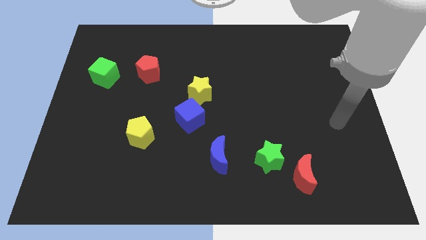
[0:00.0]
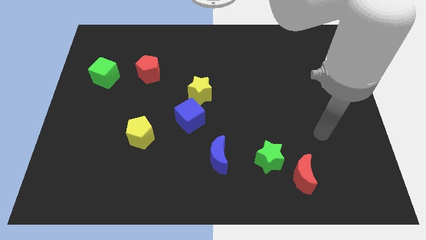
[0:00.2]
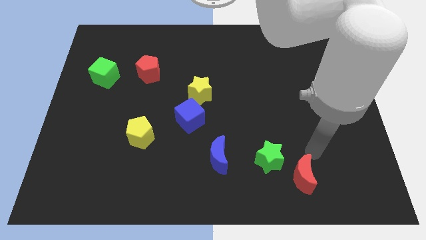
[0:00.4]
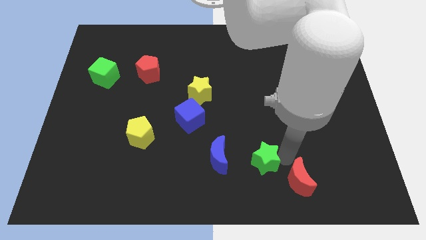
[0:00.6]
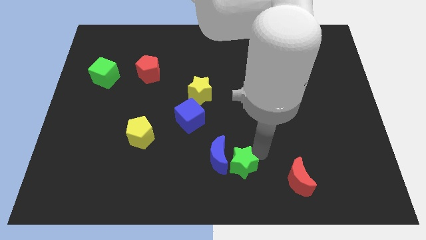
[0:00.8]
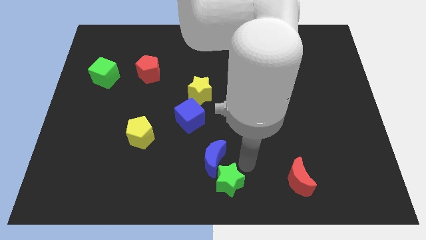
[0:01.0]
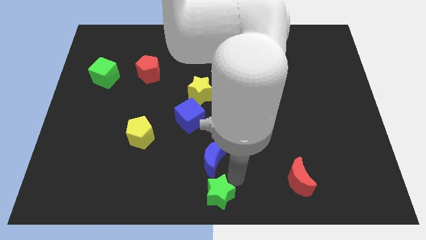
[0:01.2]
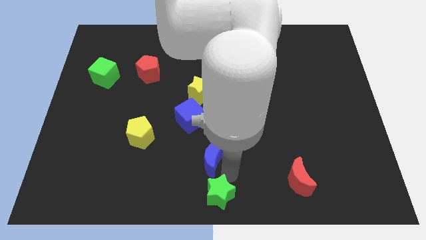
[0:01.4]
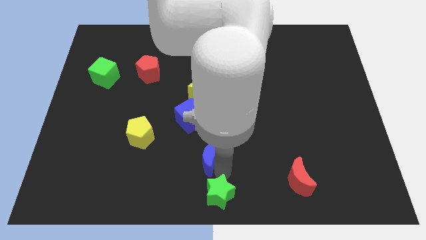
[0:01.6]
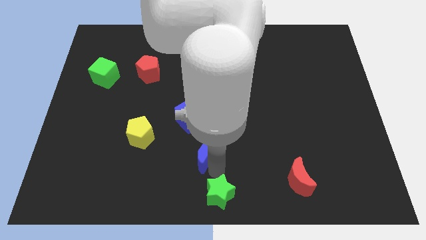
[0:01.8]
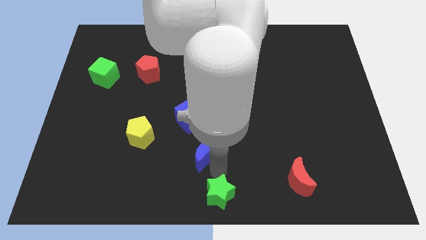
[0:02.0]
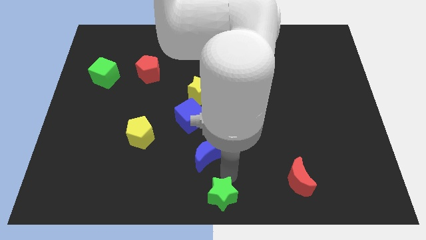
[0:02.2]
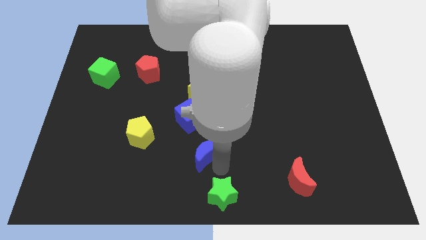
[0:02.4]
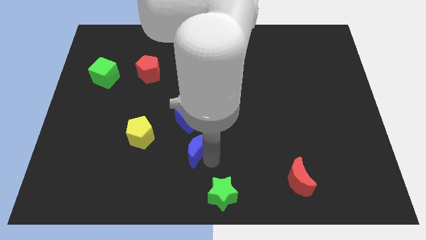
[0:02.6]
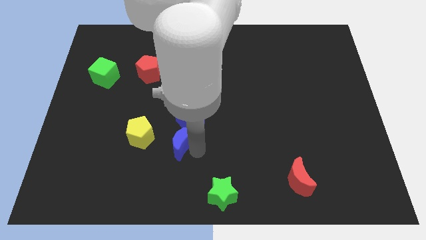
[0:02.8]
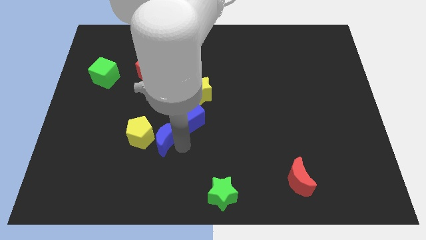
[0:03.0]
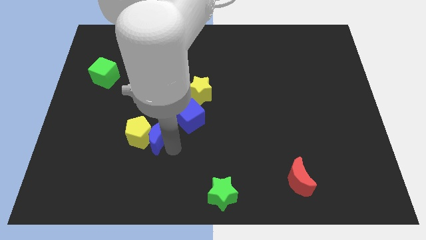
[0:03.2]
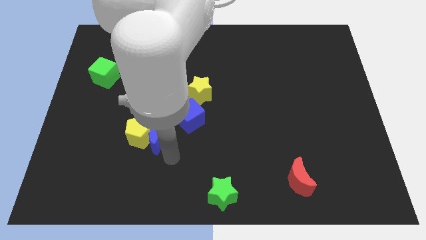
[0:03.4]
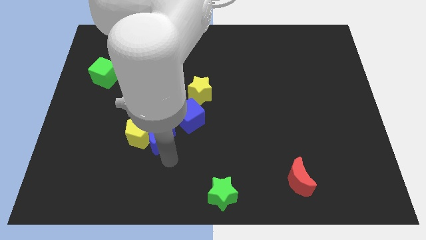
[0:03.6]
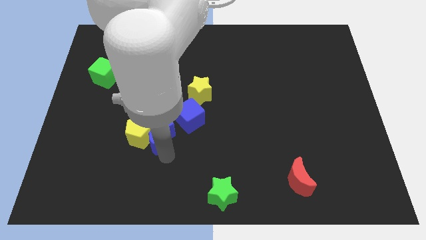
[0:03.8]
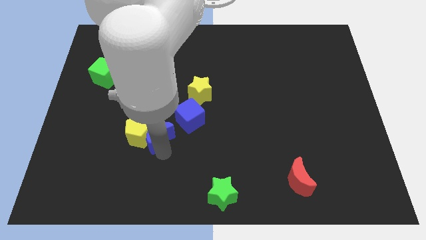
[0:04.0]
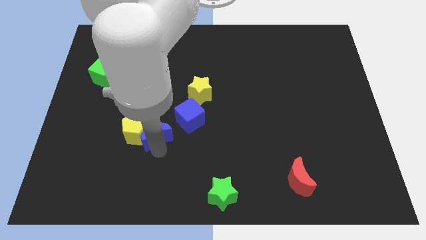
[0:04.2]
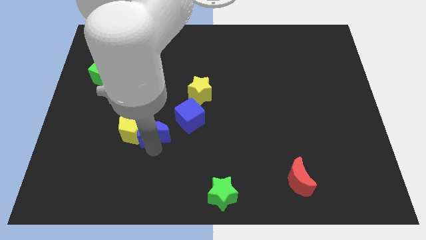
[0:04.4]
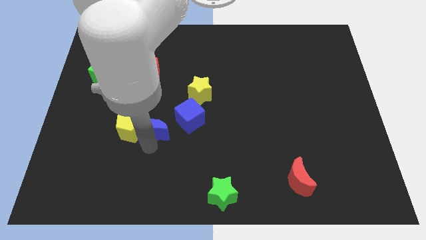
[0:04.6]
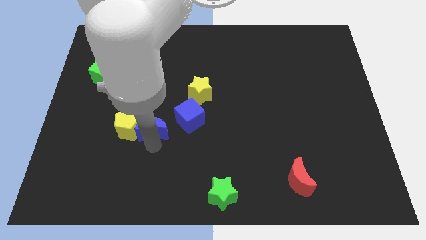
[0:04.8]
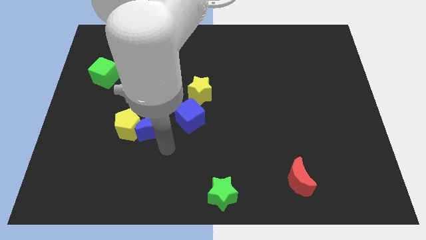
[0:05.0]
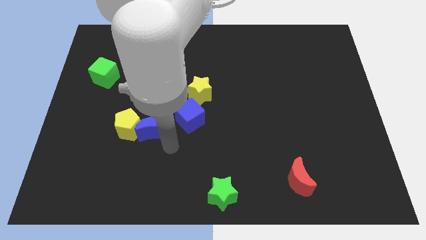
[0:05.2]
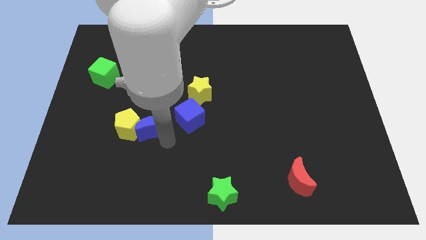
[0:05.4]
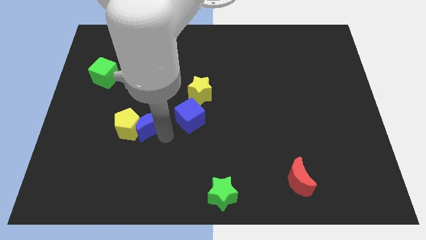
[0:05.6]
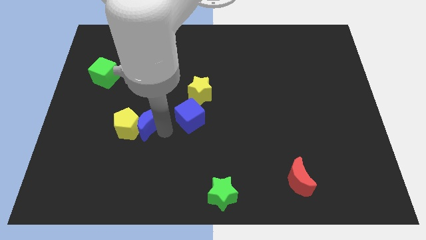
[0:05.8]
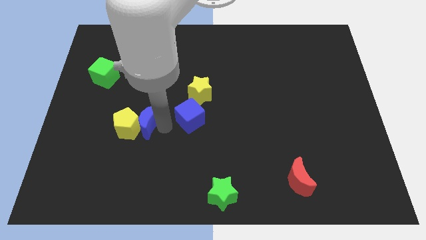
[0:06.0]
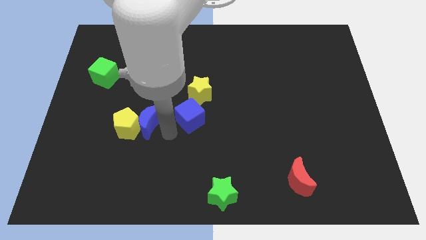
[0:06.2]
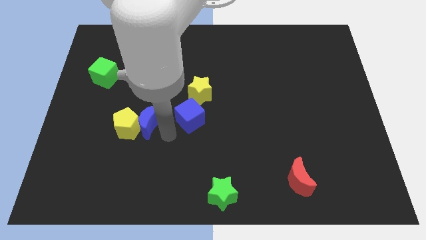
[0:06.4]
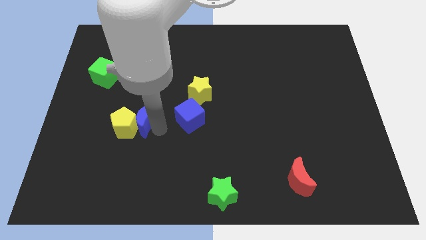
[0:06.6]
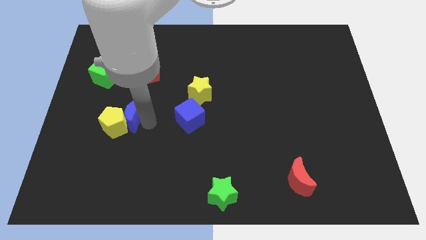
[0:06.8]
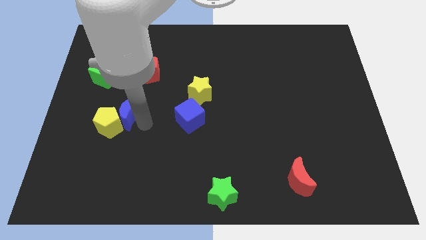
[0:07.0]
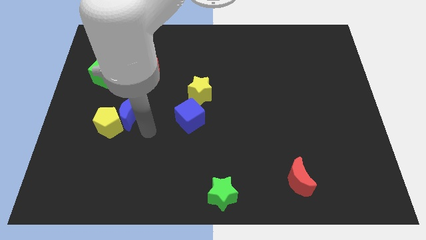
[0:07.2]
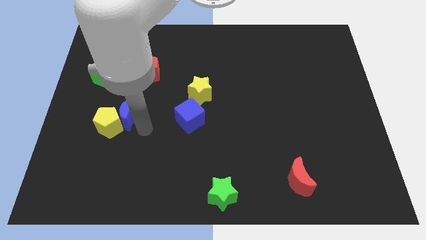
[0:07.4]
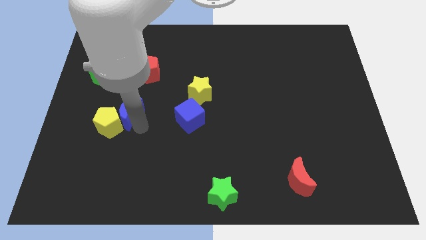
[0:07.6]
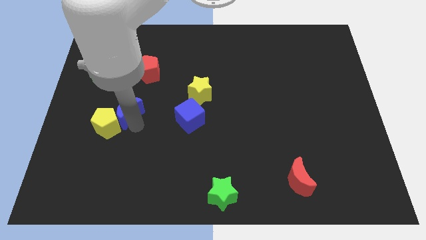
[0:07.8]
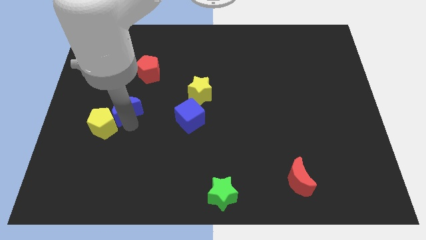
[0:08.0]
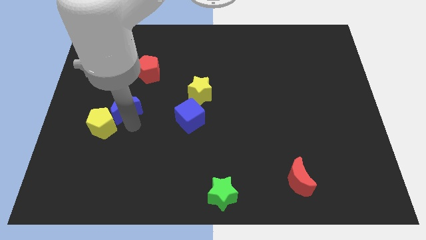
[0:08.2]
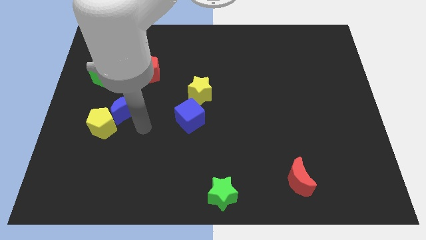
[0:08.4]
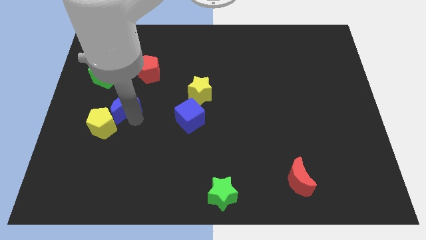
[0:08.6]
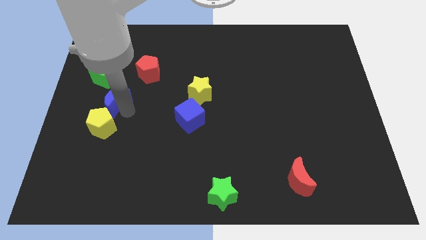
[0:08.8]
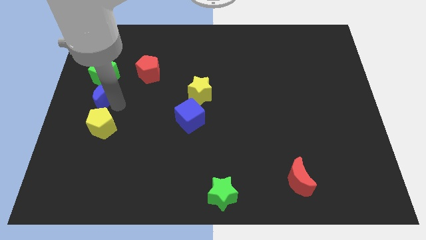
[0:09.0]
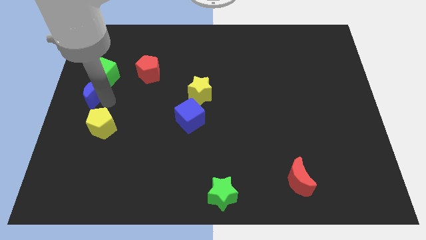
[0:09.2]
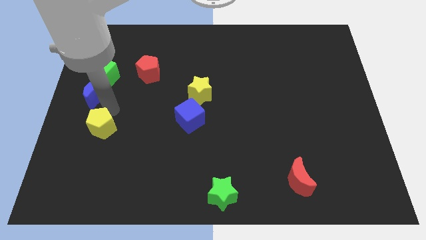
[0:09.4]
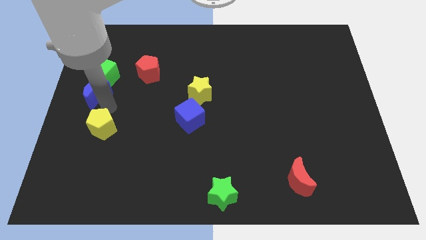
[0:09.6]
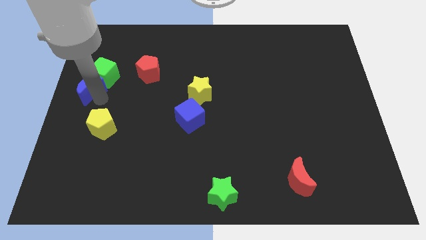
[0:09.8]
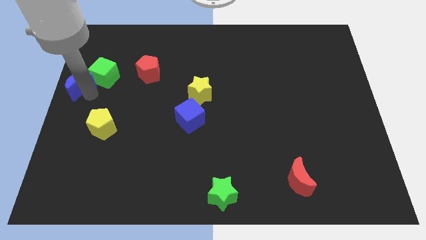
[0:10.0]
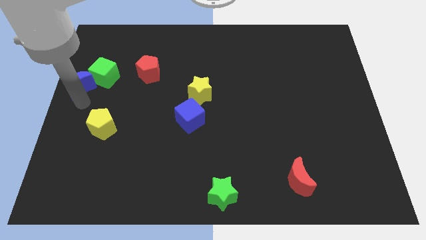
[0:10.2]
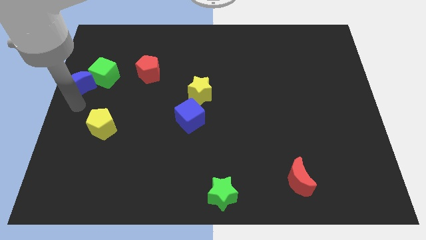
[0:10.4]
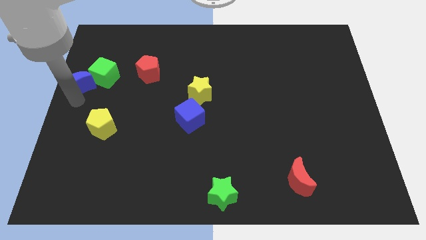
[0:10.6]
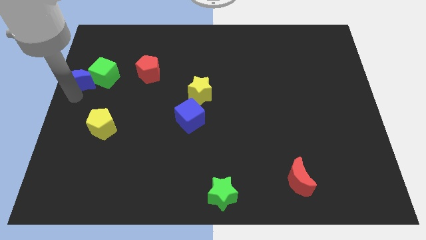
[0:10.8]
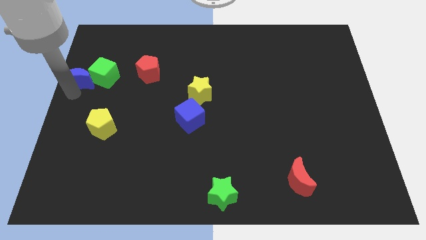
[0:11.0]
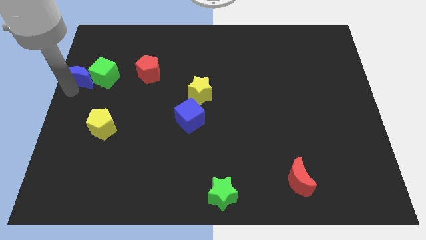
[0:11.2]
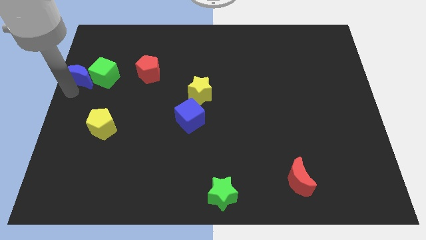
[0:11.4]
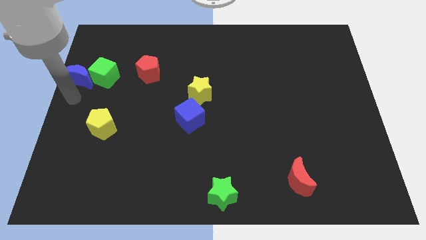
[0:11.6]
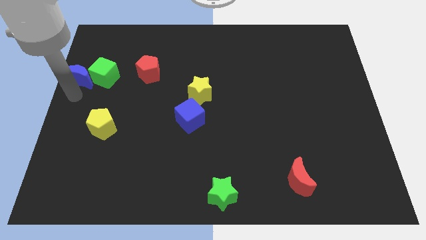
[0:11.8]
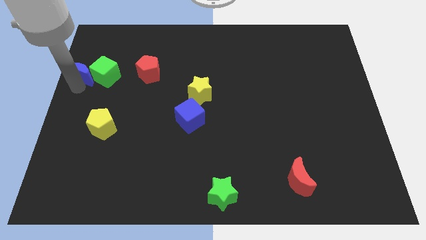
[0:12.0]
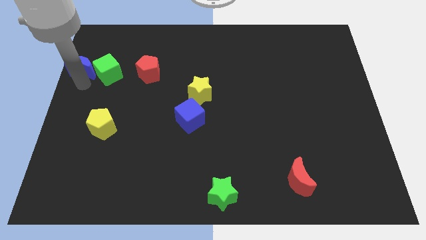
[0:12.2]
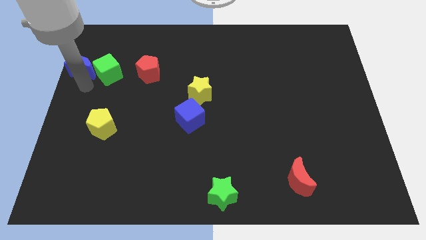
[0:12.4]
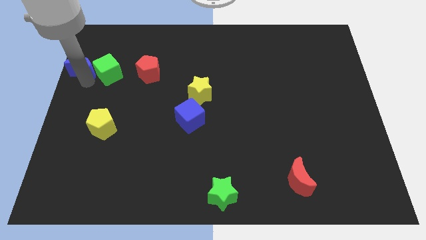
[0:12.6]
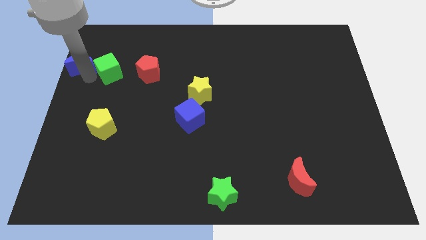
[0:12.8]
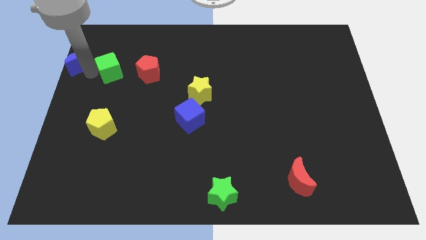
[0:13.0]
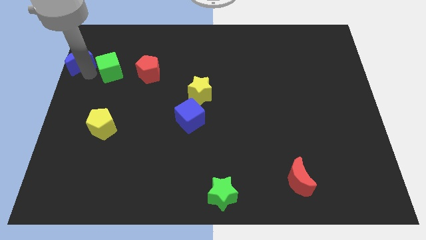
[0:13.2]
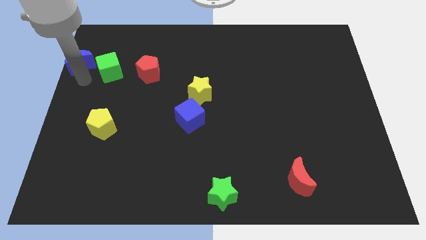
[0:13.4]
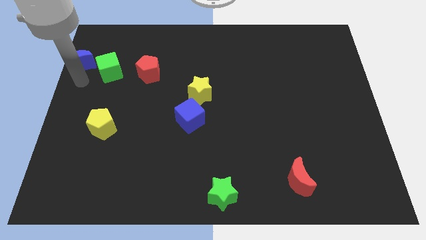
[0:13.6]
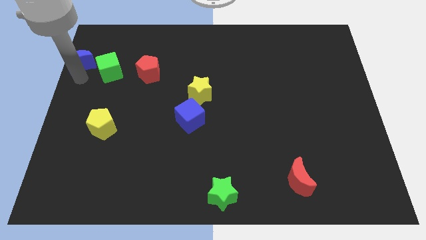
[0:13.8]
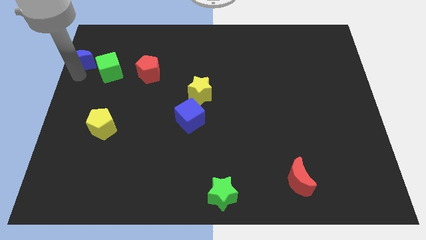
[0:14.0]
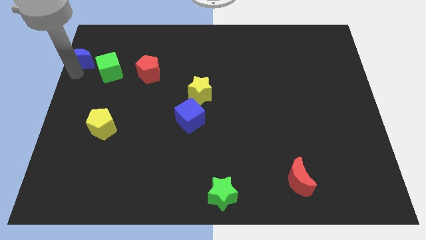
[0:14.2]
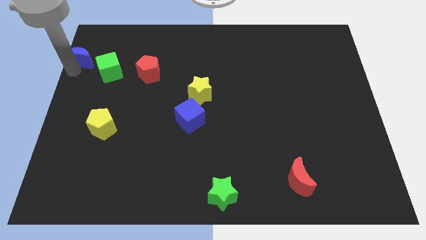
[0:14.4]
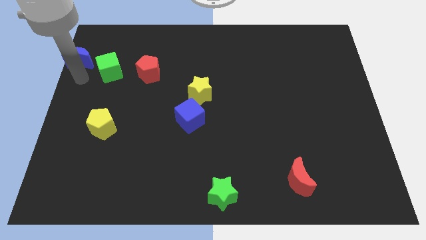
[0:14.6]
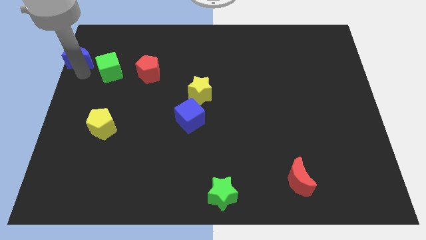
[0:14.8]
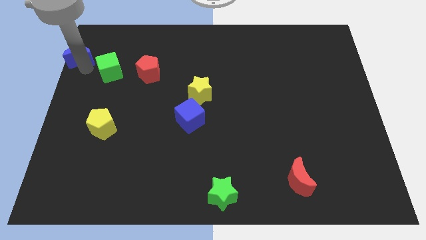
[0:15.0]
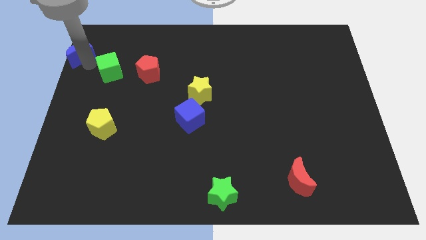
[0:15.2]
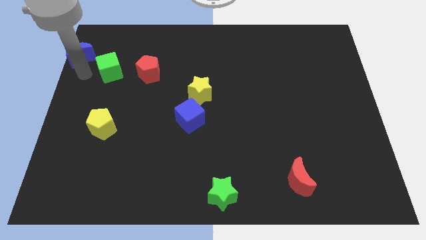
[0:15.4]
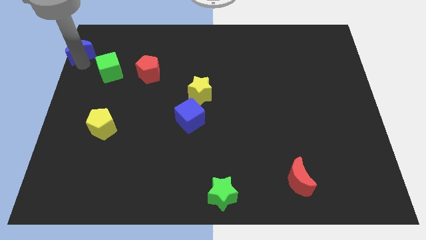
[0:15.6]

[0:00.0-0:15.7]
slide the blue moon to the top left of the board
